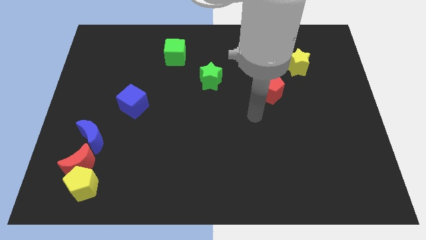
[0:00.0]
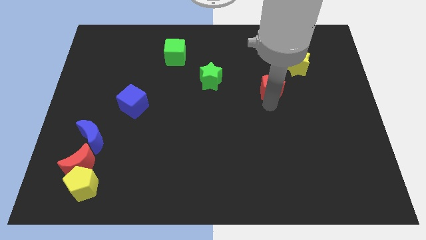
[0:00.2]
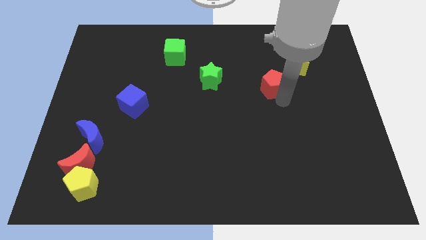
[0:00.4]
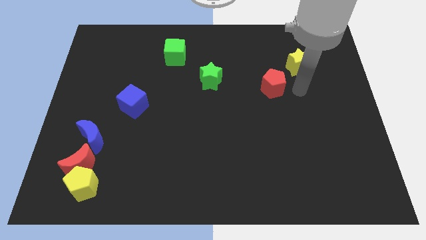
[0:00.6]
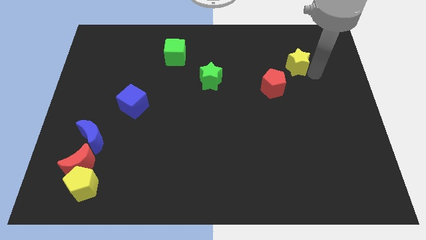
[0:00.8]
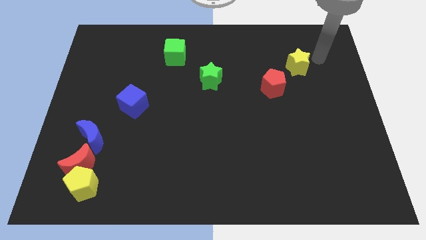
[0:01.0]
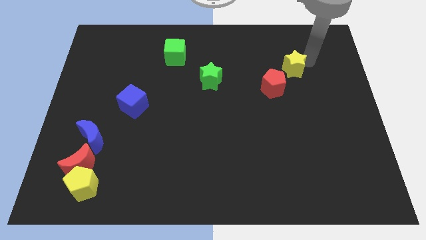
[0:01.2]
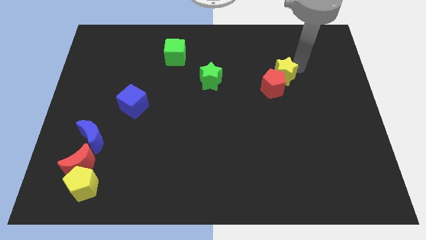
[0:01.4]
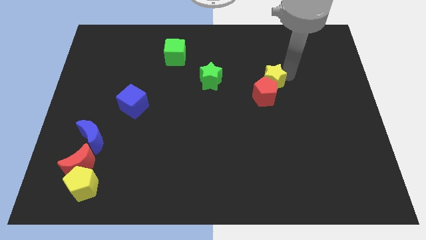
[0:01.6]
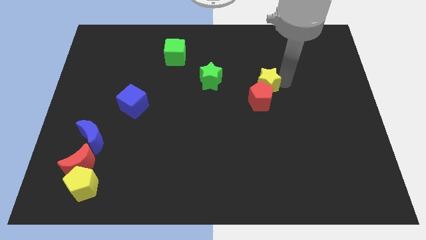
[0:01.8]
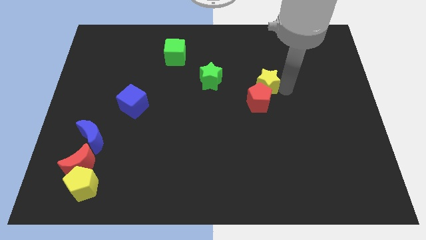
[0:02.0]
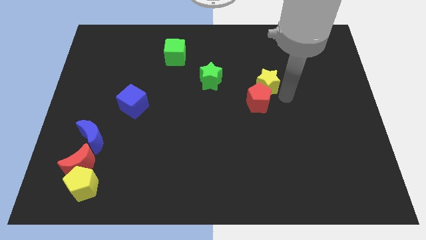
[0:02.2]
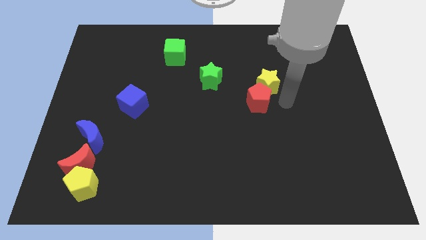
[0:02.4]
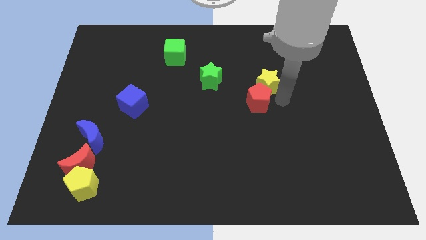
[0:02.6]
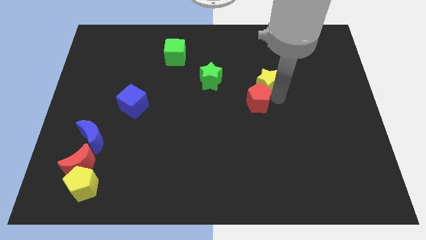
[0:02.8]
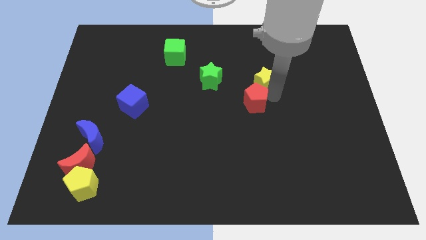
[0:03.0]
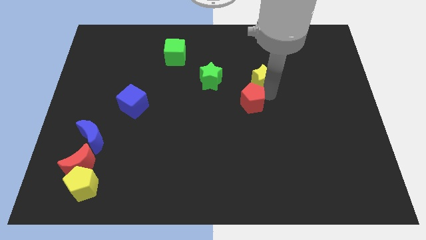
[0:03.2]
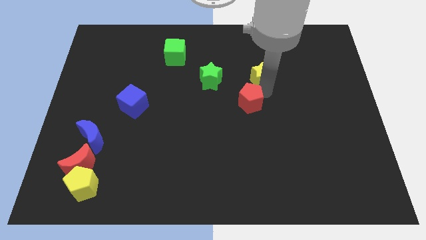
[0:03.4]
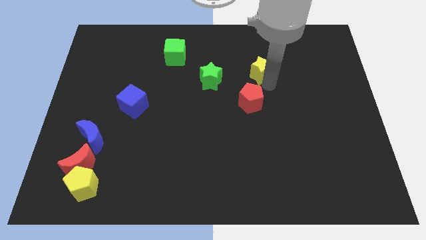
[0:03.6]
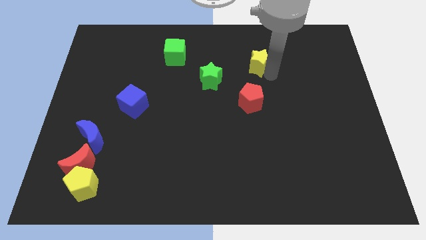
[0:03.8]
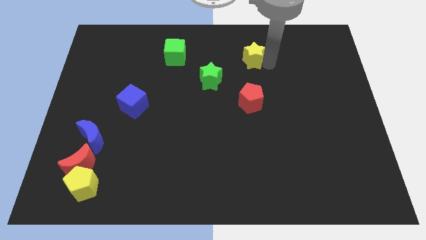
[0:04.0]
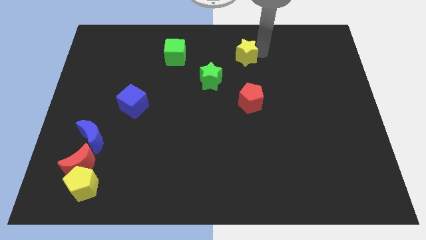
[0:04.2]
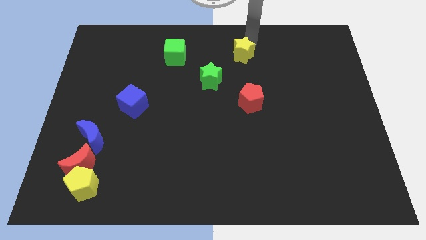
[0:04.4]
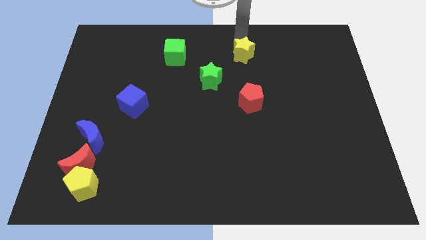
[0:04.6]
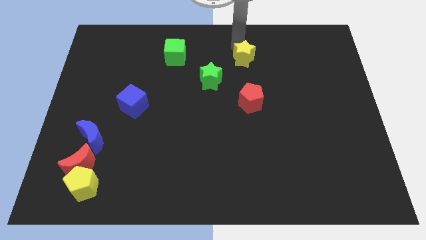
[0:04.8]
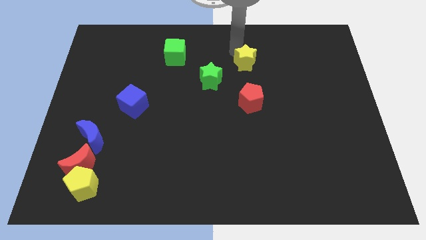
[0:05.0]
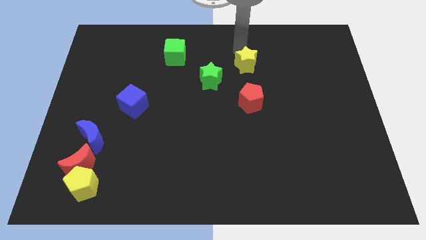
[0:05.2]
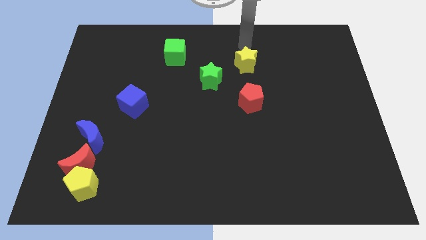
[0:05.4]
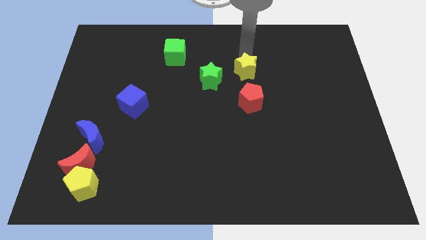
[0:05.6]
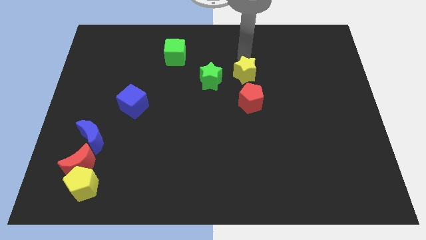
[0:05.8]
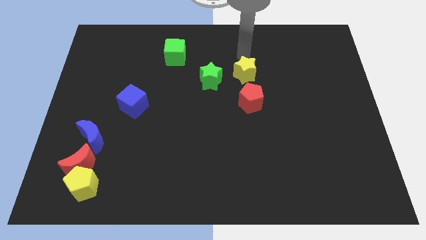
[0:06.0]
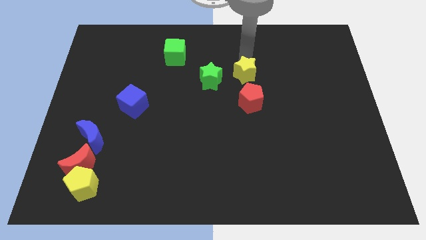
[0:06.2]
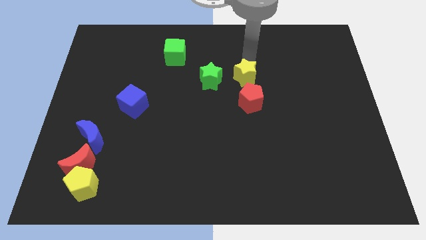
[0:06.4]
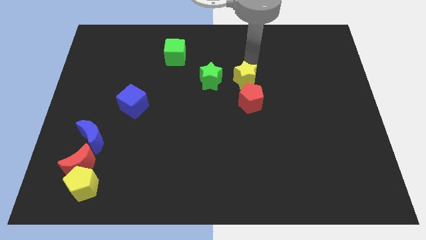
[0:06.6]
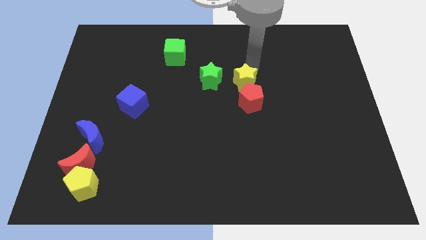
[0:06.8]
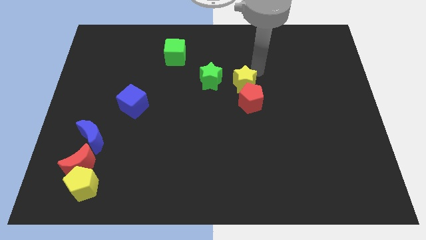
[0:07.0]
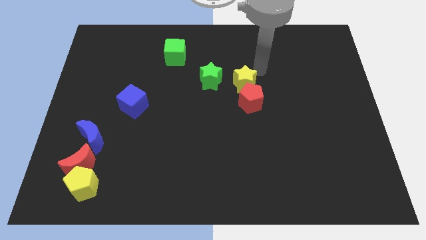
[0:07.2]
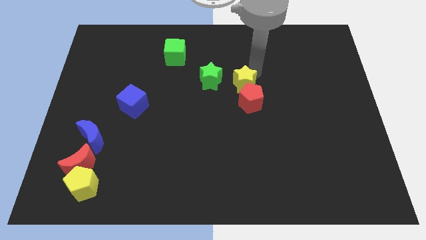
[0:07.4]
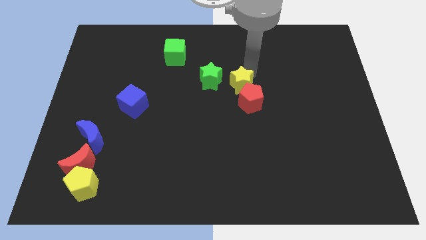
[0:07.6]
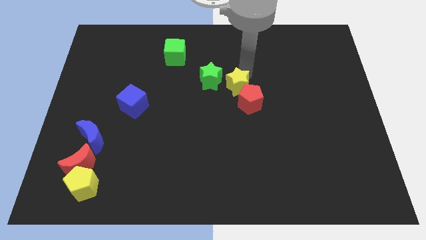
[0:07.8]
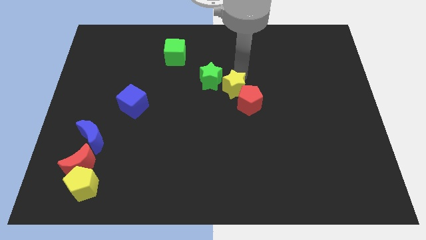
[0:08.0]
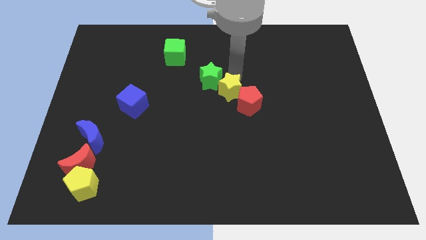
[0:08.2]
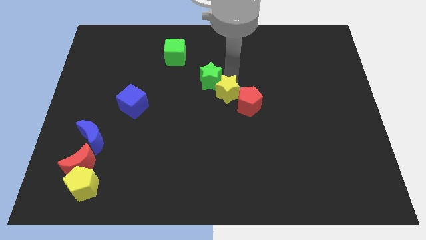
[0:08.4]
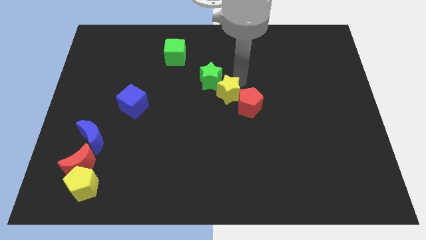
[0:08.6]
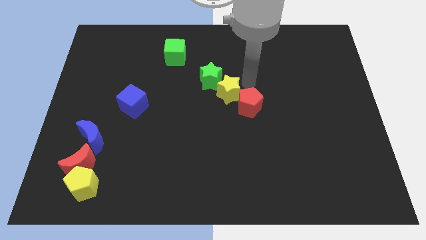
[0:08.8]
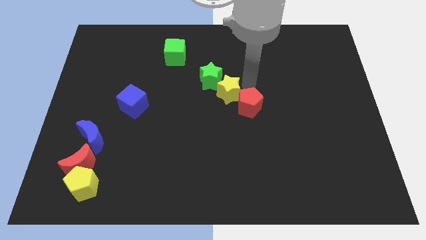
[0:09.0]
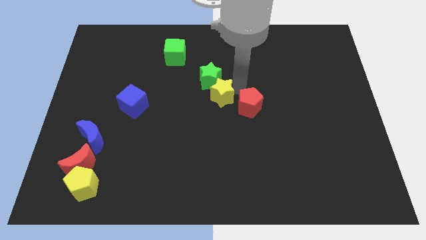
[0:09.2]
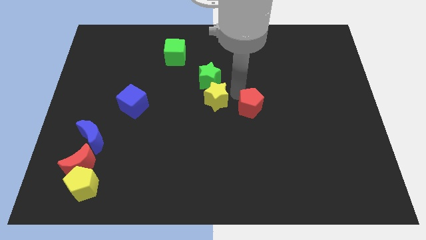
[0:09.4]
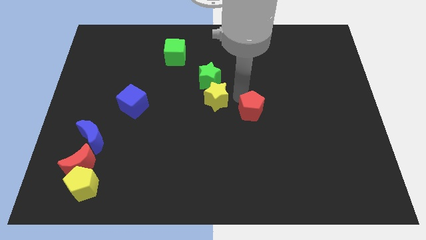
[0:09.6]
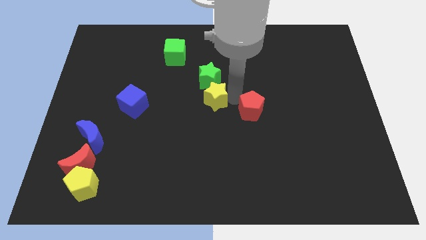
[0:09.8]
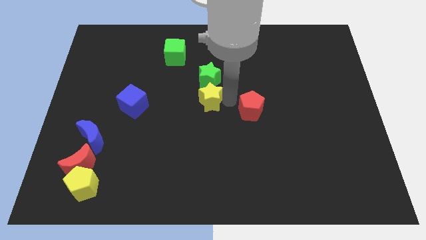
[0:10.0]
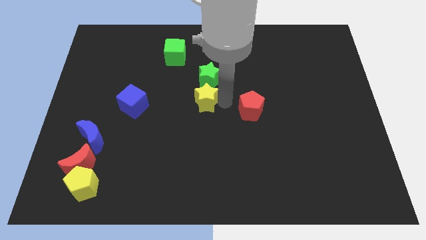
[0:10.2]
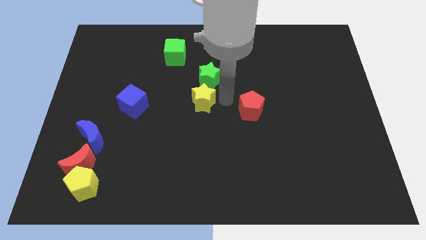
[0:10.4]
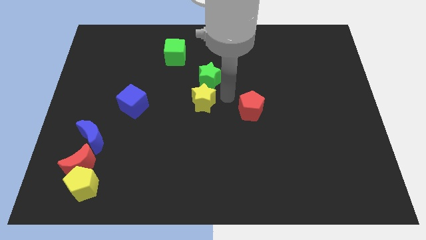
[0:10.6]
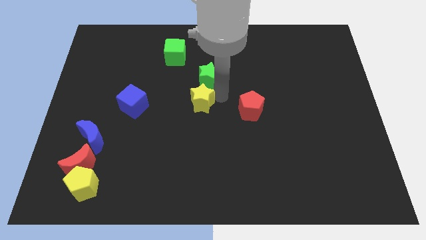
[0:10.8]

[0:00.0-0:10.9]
slide the yellow star to the right side of the blue cube

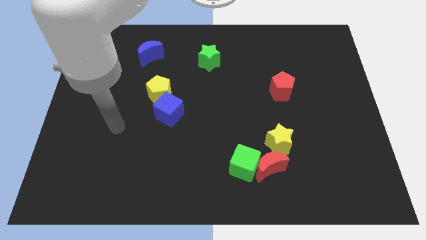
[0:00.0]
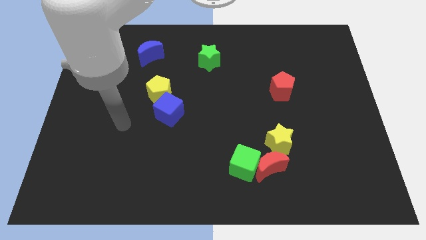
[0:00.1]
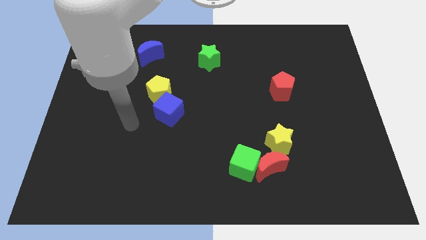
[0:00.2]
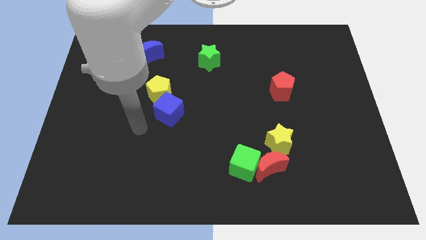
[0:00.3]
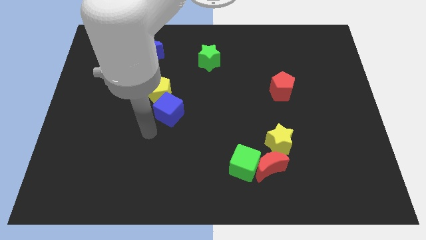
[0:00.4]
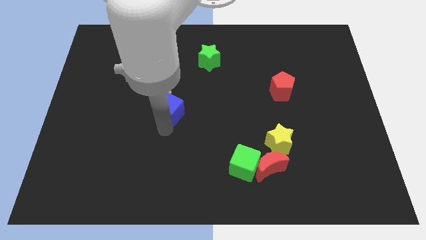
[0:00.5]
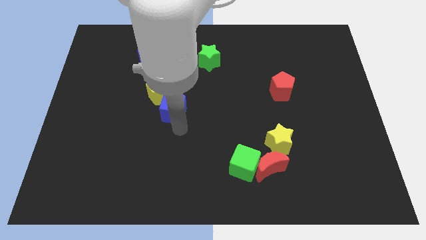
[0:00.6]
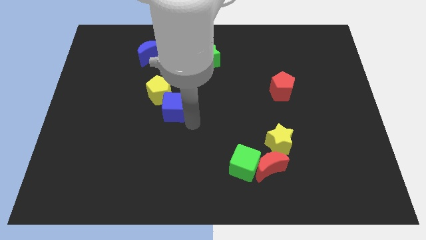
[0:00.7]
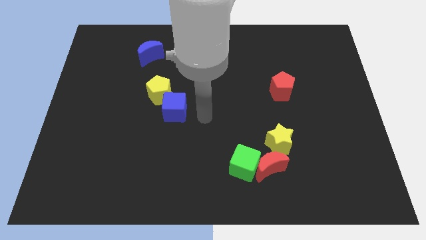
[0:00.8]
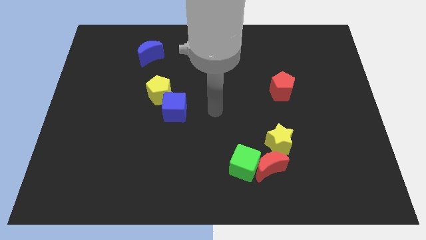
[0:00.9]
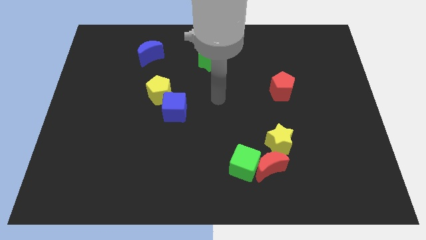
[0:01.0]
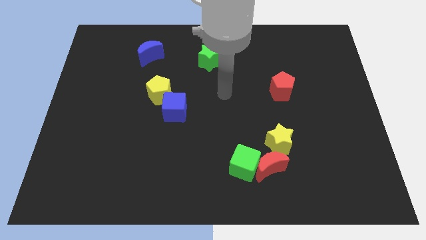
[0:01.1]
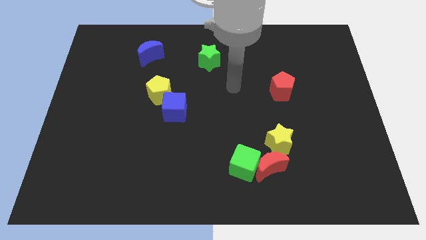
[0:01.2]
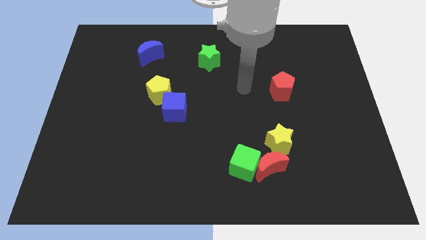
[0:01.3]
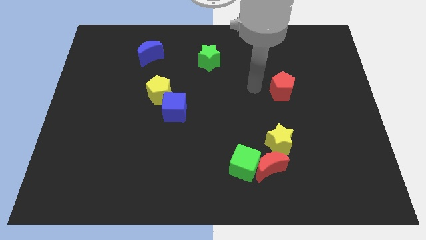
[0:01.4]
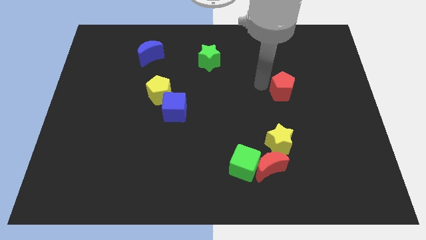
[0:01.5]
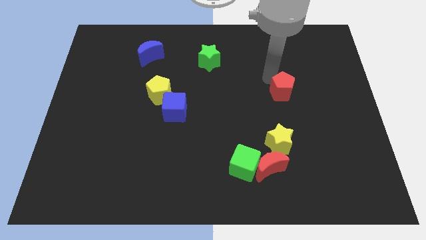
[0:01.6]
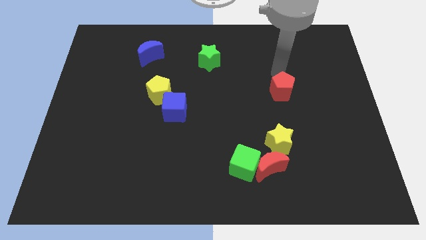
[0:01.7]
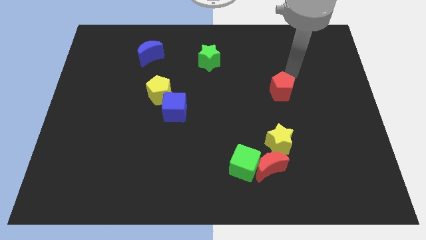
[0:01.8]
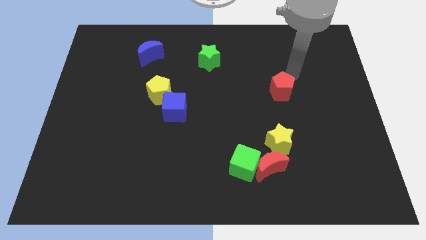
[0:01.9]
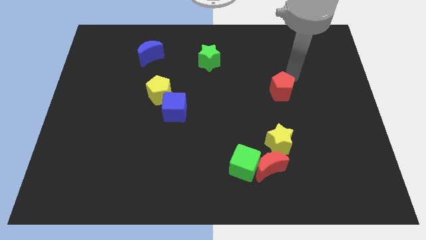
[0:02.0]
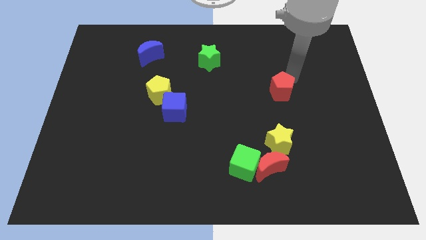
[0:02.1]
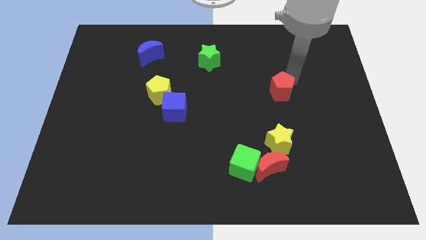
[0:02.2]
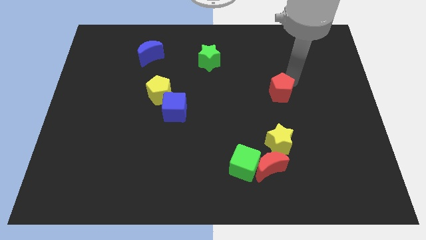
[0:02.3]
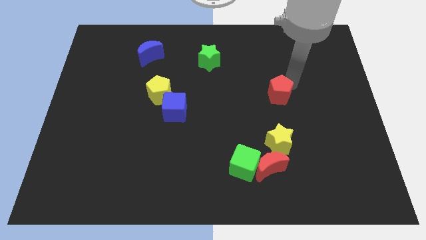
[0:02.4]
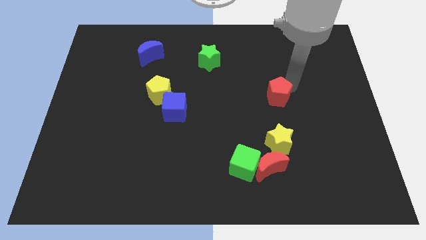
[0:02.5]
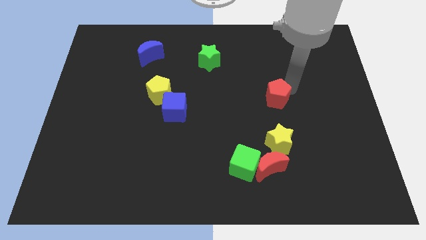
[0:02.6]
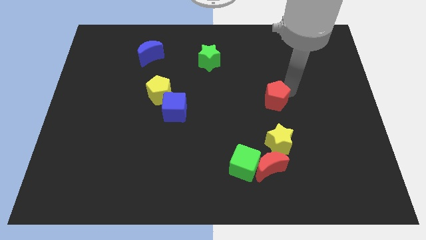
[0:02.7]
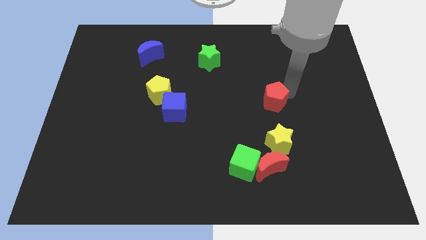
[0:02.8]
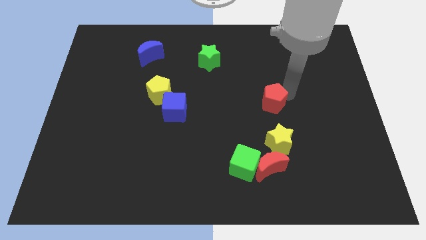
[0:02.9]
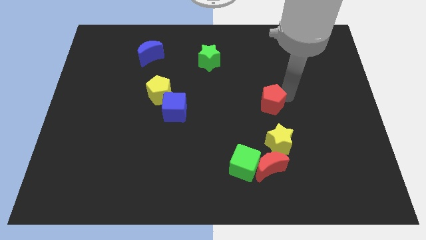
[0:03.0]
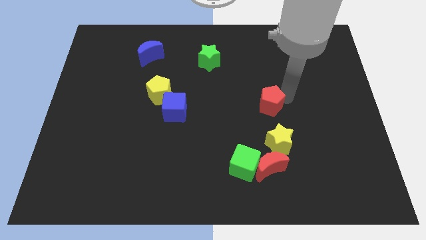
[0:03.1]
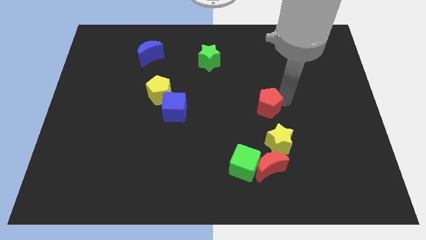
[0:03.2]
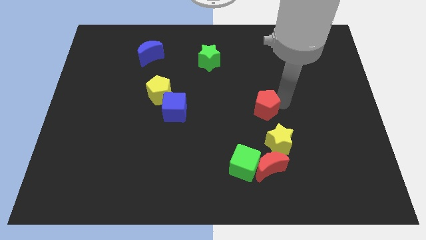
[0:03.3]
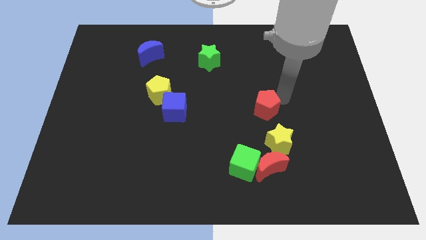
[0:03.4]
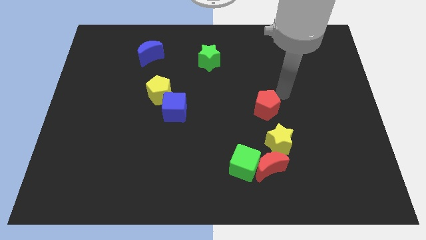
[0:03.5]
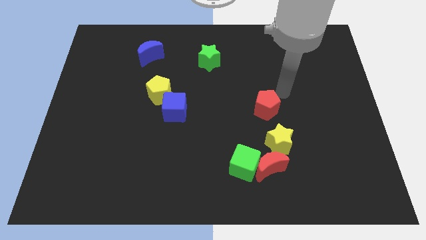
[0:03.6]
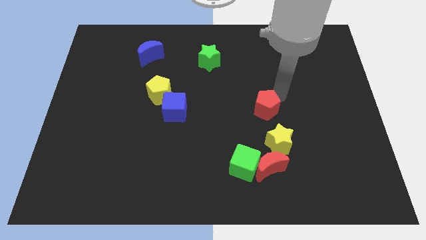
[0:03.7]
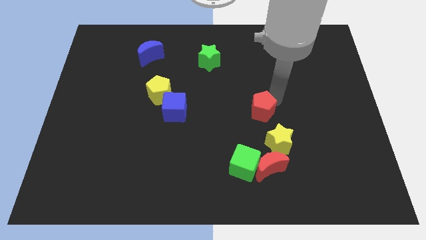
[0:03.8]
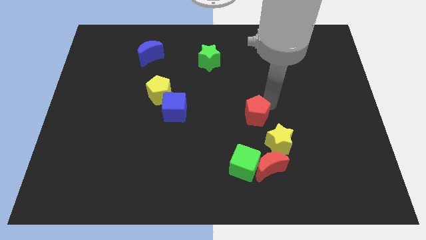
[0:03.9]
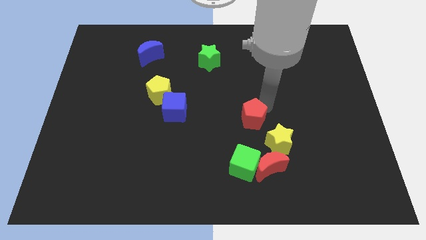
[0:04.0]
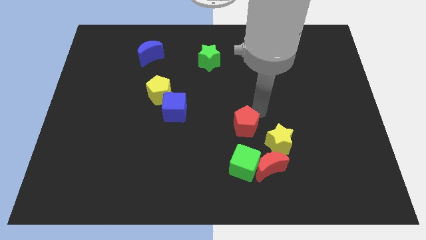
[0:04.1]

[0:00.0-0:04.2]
slide the red pentagon left of the yellow star
